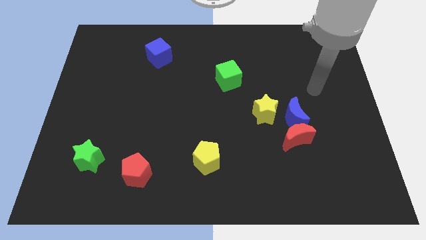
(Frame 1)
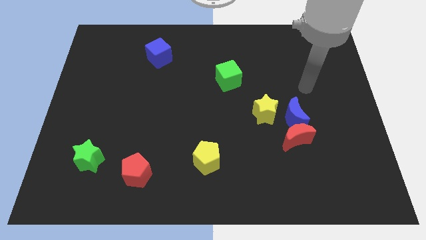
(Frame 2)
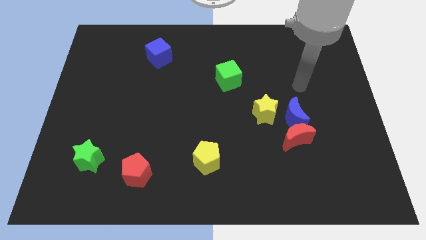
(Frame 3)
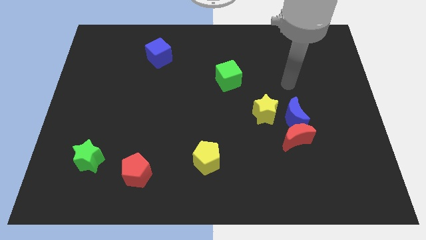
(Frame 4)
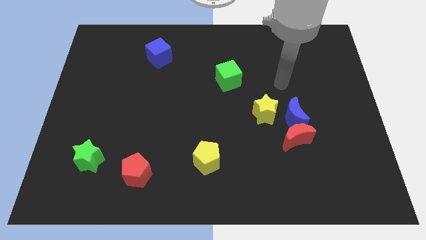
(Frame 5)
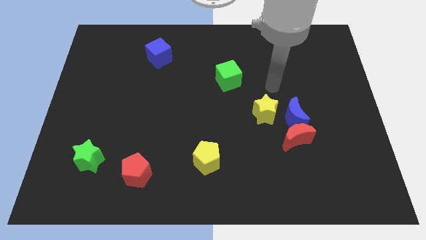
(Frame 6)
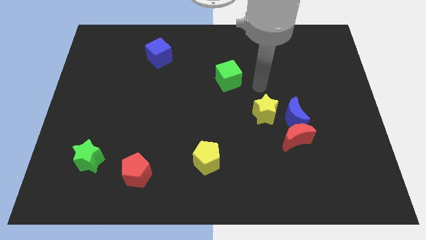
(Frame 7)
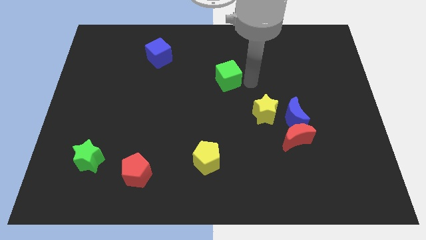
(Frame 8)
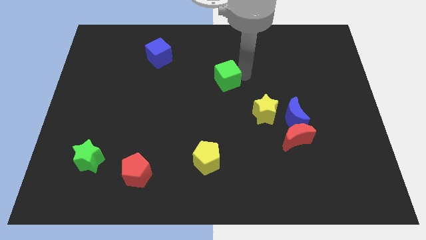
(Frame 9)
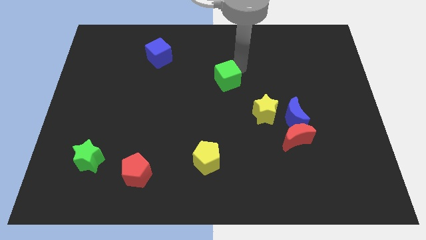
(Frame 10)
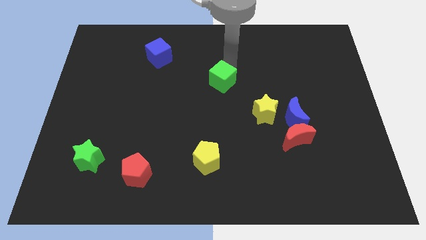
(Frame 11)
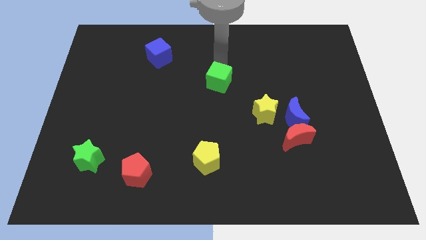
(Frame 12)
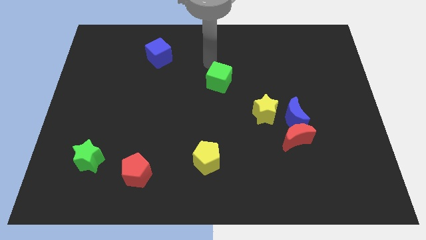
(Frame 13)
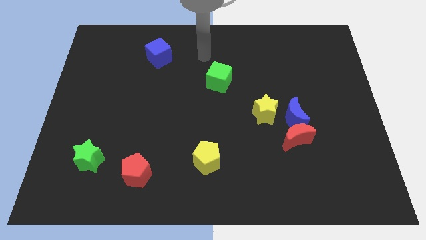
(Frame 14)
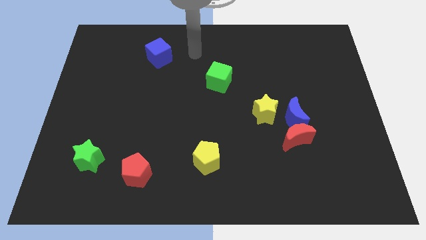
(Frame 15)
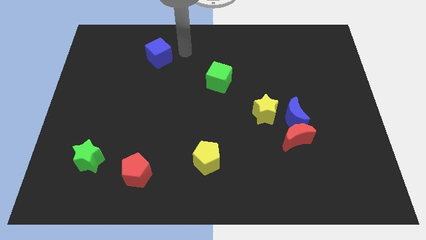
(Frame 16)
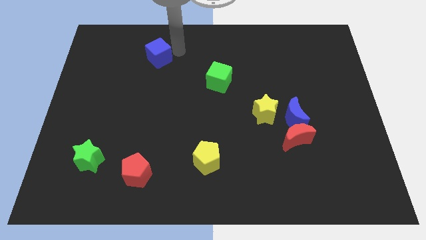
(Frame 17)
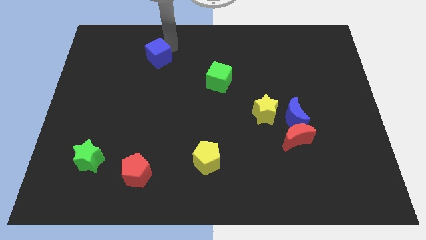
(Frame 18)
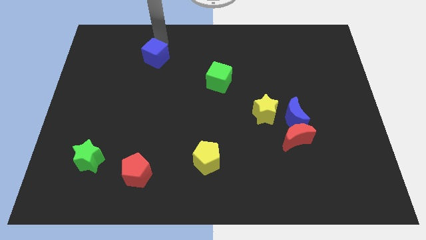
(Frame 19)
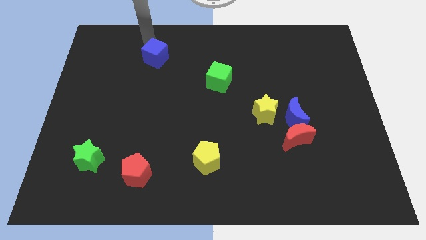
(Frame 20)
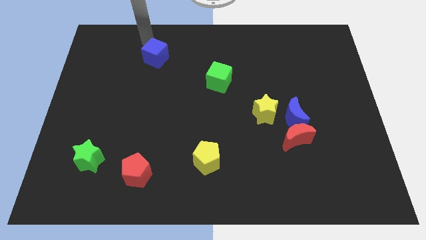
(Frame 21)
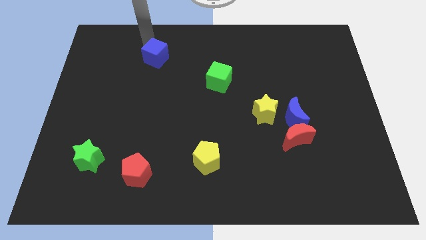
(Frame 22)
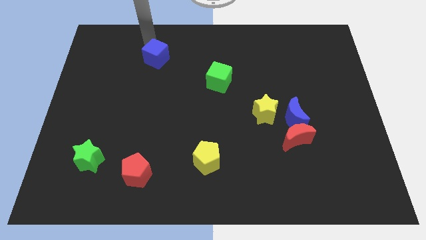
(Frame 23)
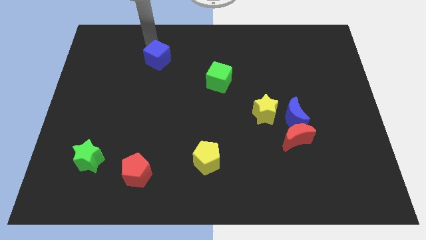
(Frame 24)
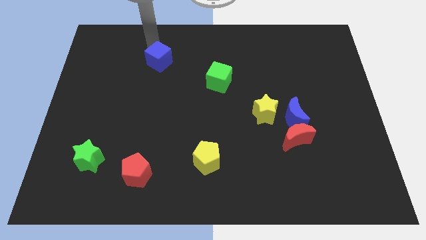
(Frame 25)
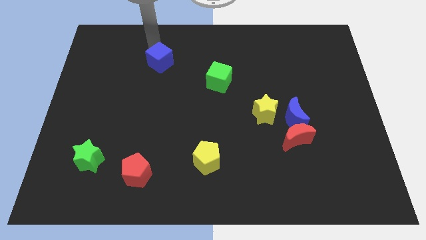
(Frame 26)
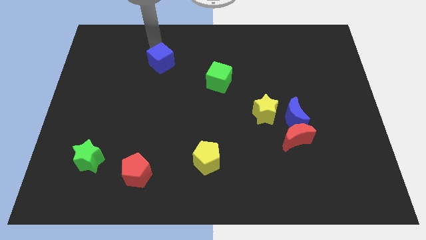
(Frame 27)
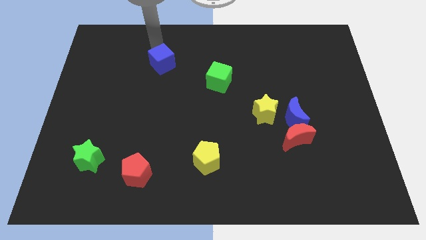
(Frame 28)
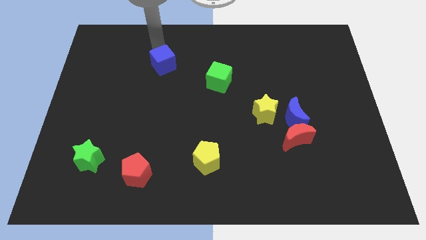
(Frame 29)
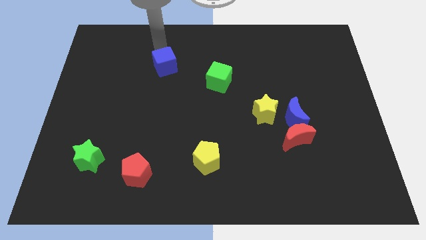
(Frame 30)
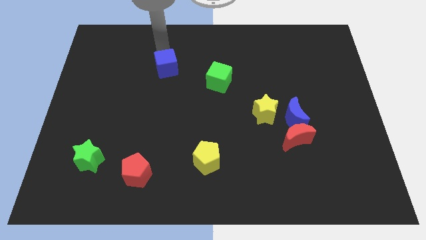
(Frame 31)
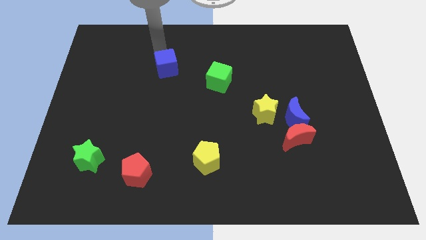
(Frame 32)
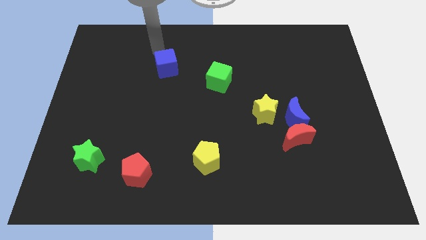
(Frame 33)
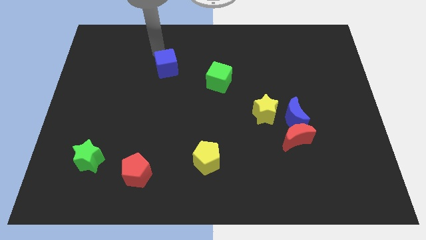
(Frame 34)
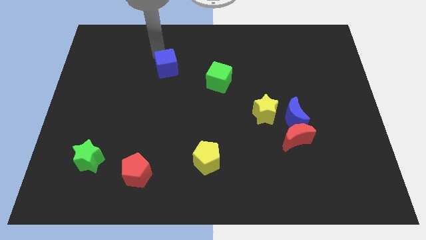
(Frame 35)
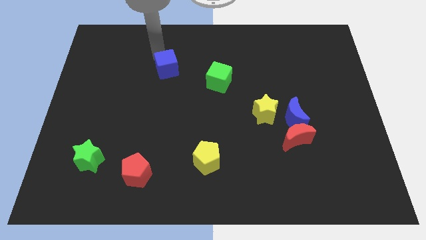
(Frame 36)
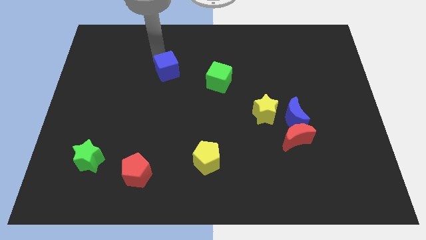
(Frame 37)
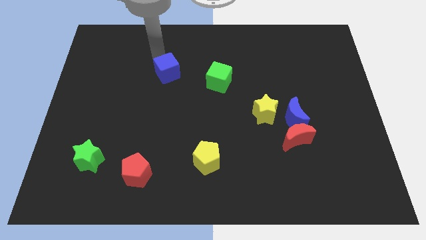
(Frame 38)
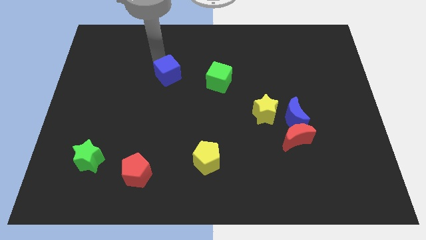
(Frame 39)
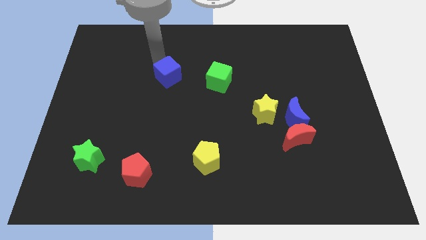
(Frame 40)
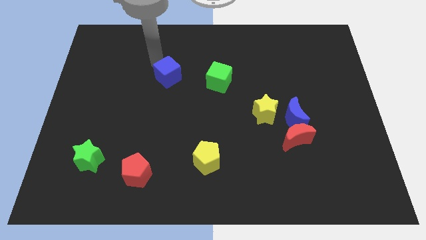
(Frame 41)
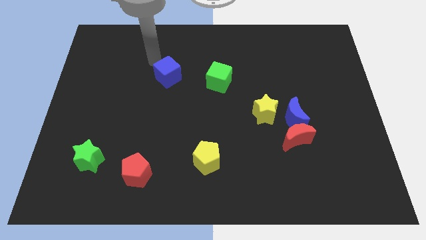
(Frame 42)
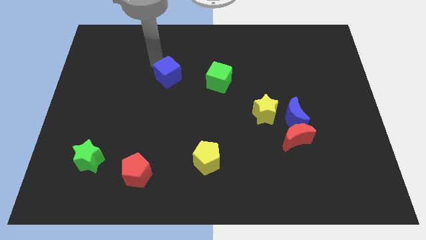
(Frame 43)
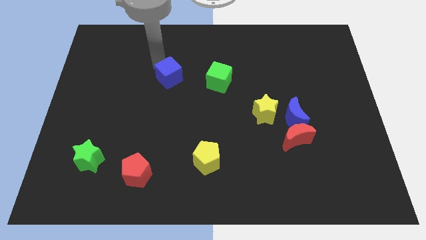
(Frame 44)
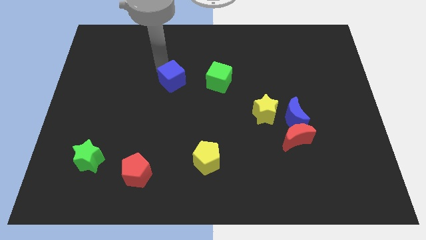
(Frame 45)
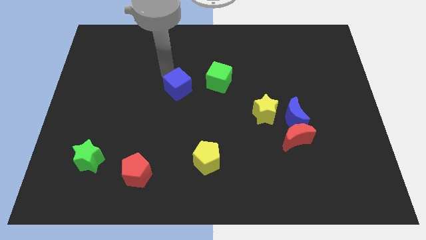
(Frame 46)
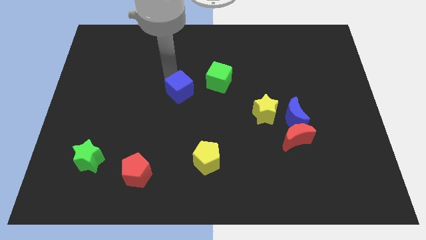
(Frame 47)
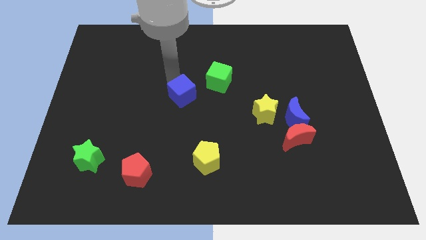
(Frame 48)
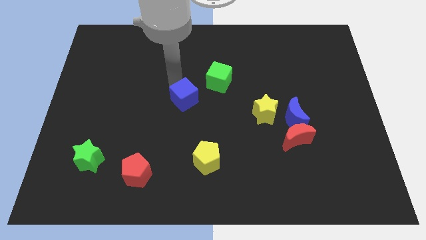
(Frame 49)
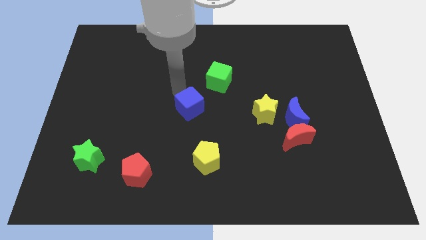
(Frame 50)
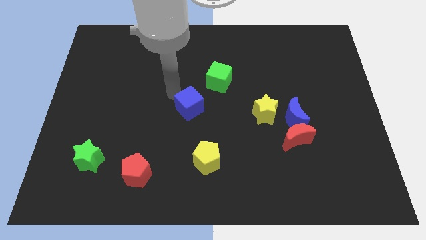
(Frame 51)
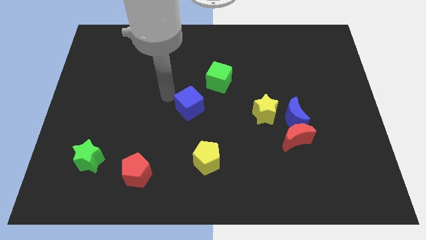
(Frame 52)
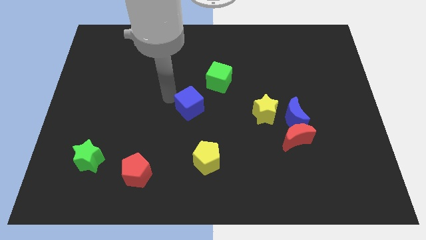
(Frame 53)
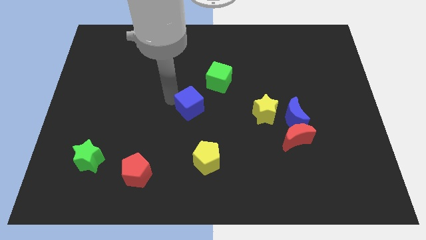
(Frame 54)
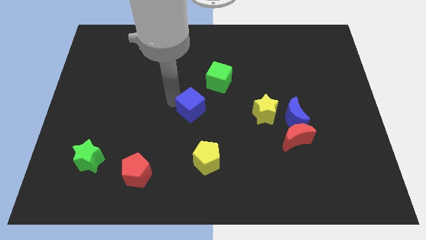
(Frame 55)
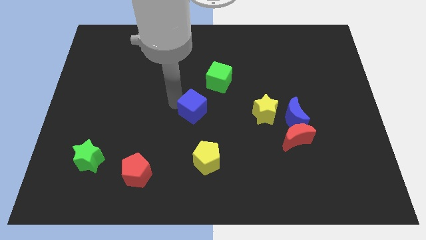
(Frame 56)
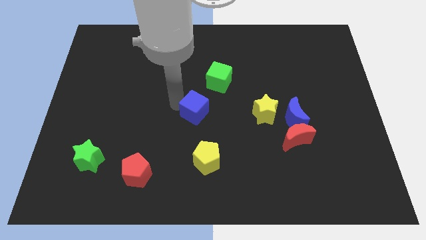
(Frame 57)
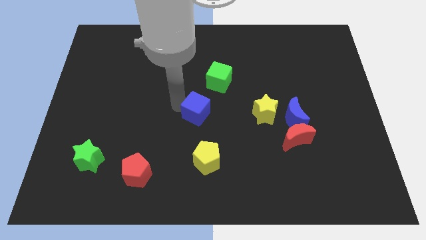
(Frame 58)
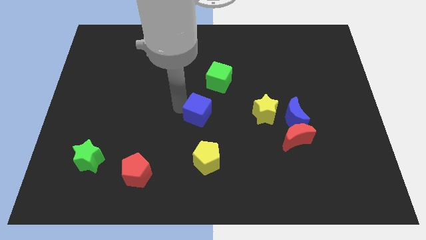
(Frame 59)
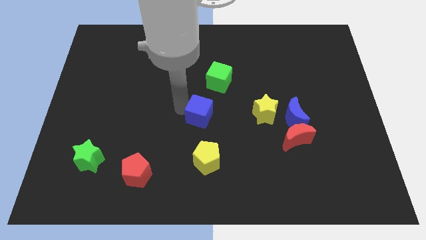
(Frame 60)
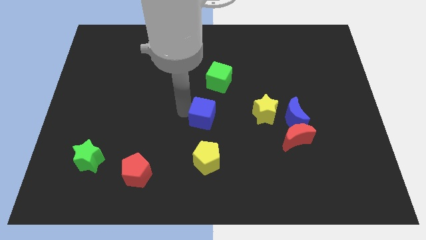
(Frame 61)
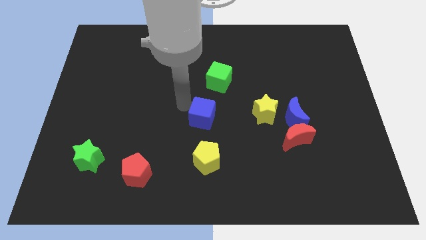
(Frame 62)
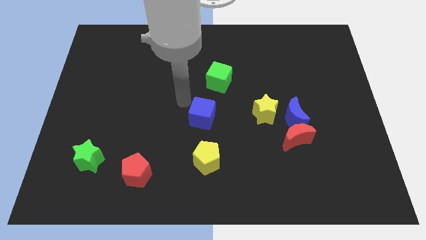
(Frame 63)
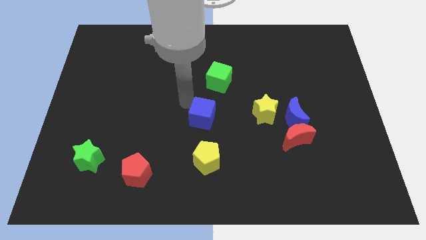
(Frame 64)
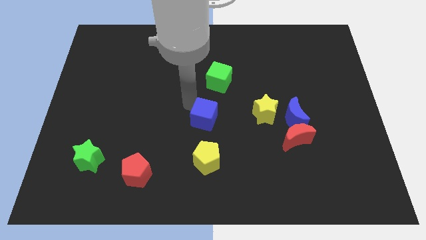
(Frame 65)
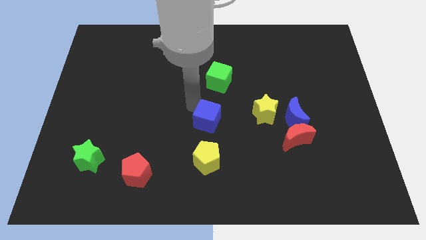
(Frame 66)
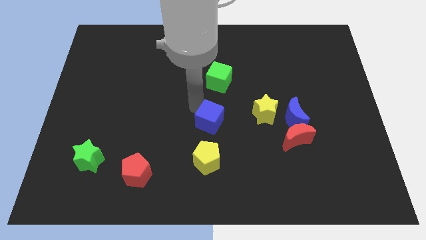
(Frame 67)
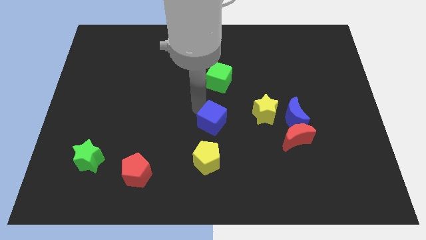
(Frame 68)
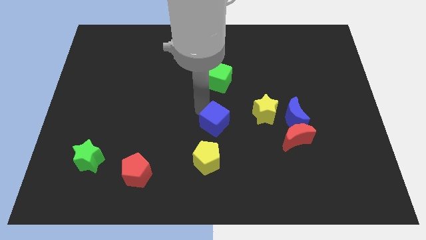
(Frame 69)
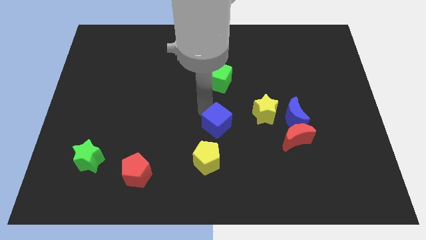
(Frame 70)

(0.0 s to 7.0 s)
push the blue cube to the top right of the yellow pentagon

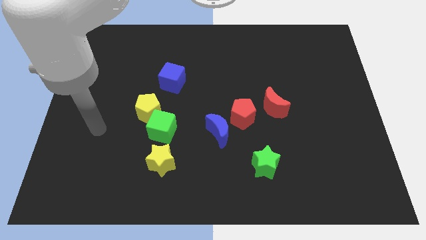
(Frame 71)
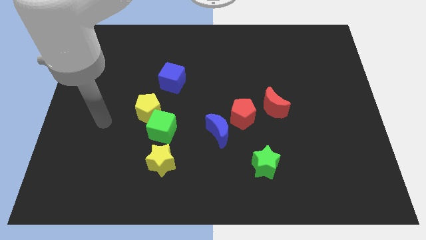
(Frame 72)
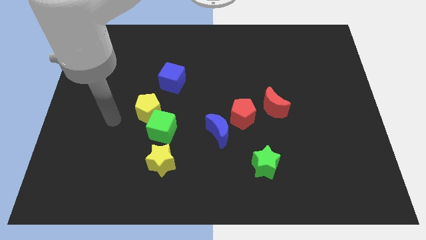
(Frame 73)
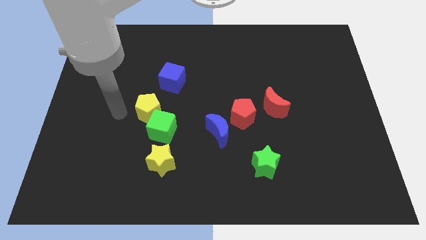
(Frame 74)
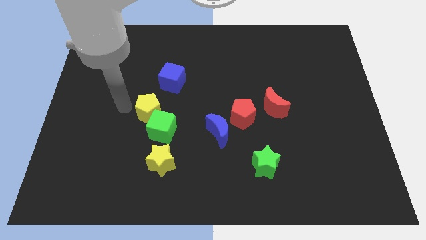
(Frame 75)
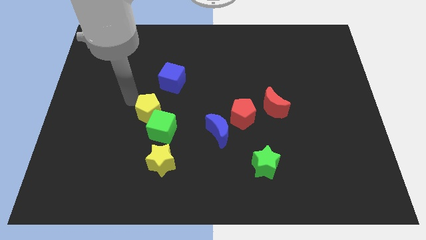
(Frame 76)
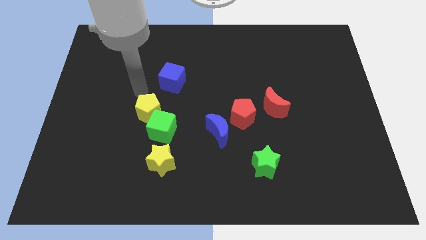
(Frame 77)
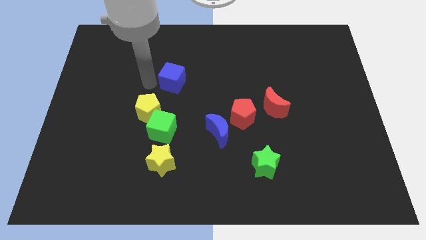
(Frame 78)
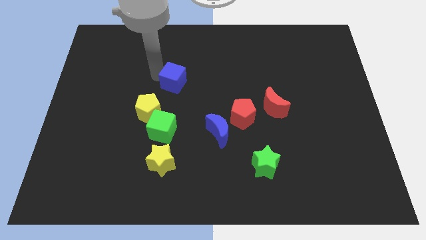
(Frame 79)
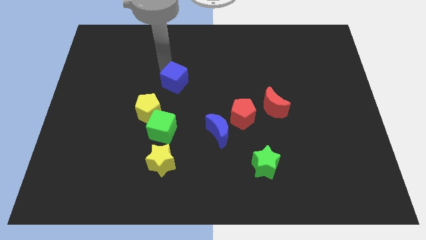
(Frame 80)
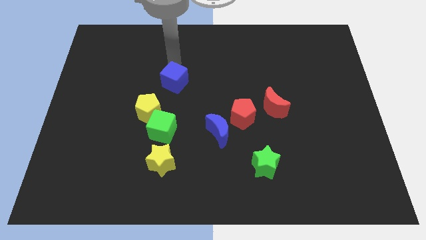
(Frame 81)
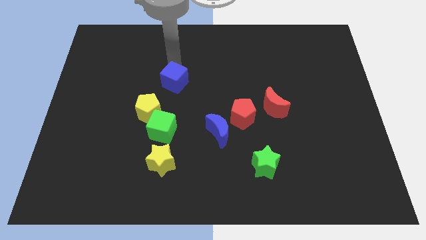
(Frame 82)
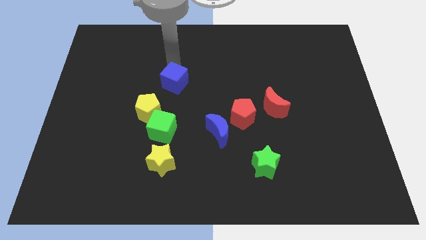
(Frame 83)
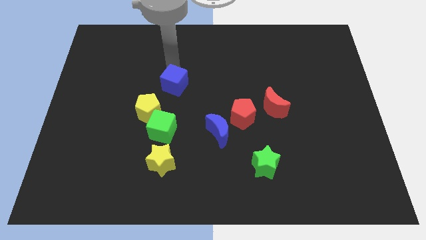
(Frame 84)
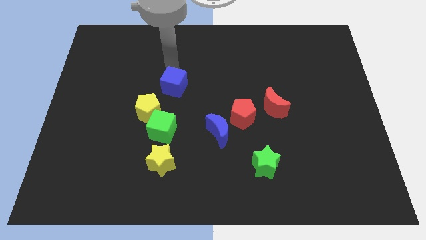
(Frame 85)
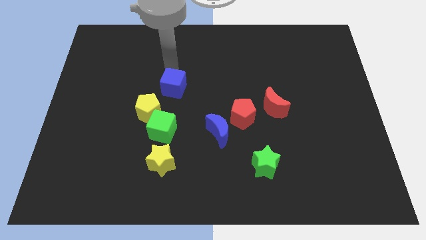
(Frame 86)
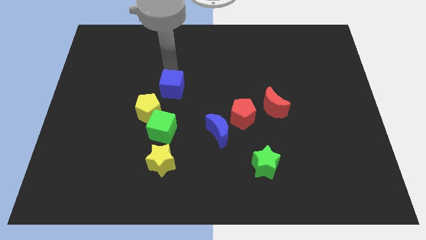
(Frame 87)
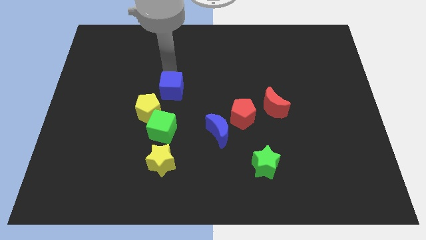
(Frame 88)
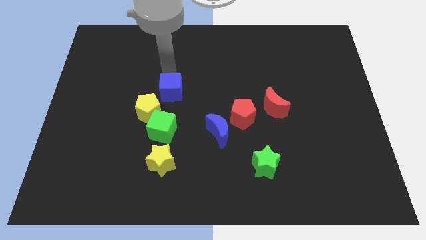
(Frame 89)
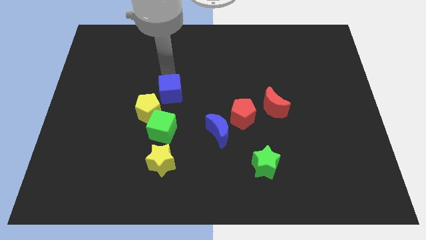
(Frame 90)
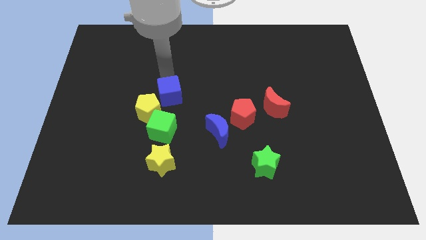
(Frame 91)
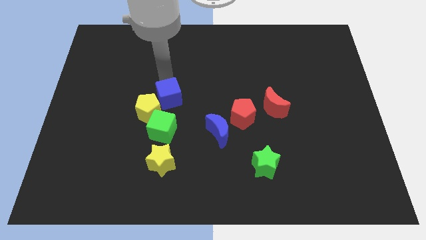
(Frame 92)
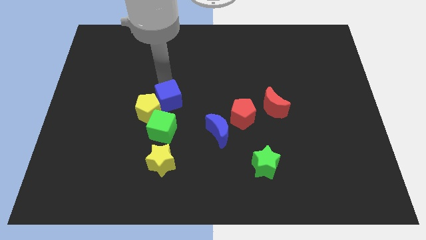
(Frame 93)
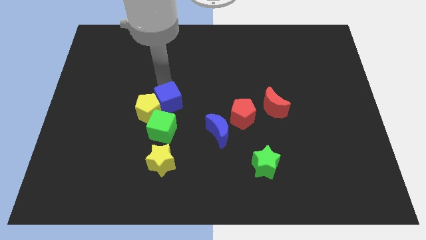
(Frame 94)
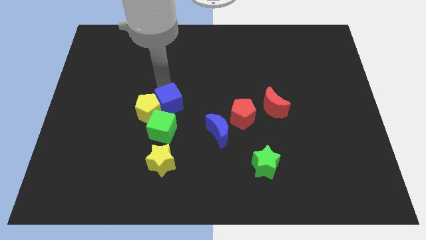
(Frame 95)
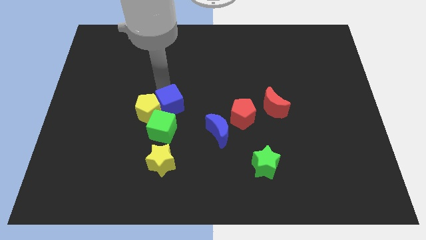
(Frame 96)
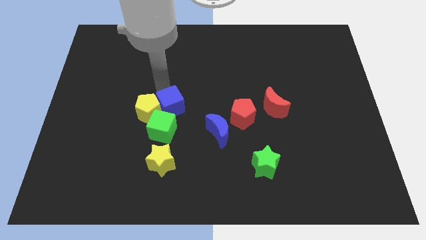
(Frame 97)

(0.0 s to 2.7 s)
slide the blue cube to the bottom right of the yellow pentagon
